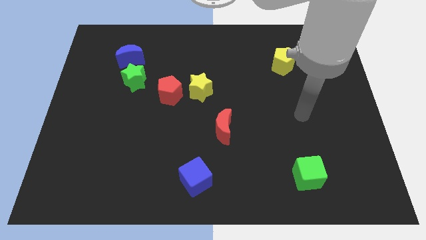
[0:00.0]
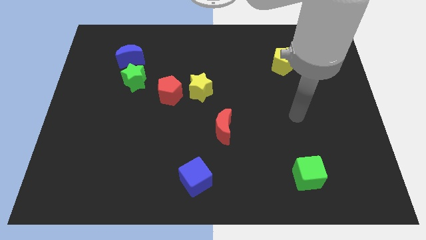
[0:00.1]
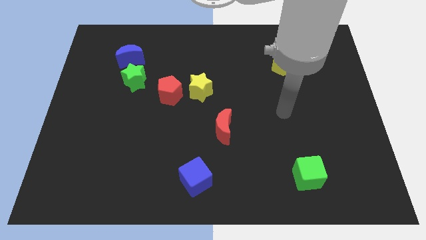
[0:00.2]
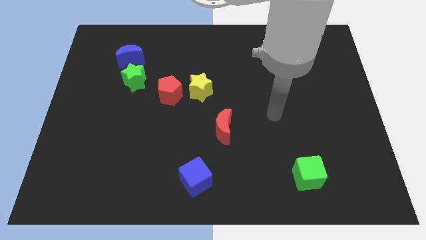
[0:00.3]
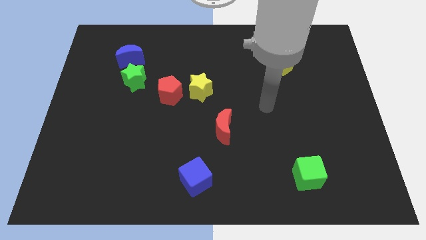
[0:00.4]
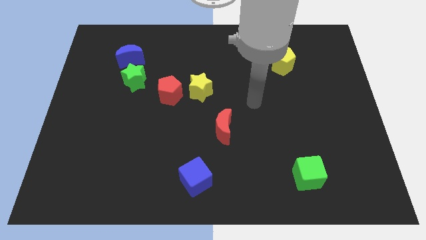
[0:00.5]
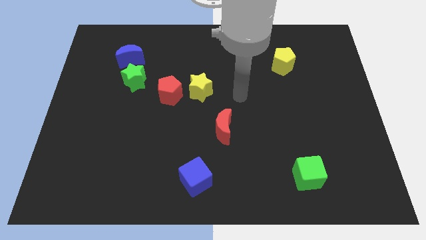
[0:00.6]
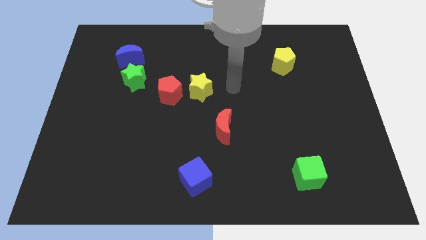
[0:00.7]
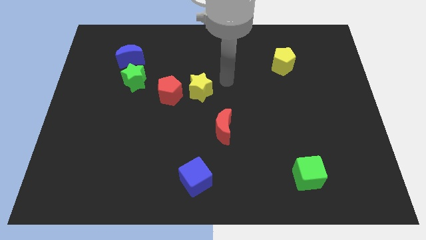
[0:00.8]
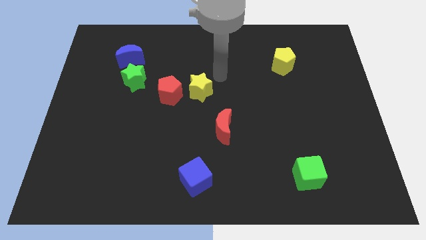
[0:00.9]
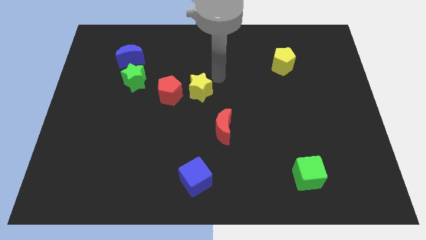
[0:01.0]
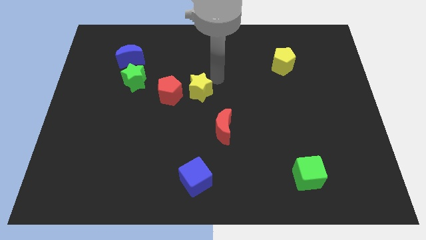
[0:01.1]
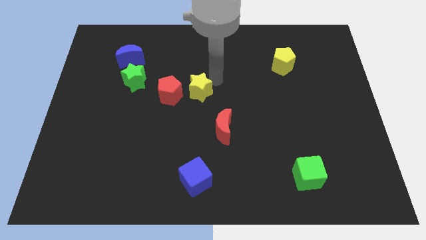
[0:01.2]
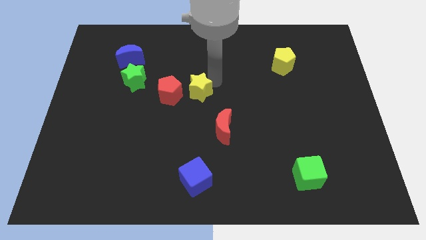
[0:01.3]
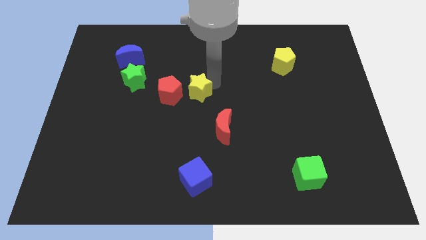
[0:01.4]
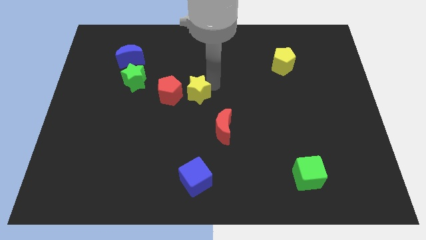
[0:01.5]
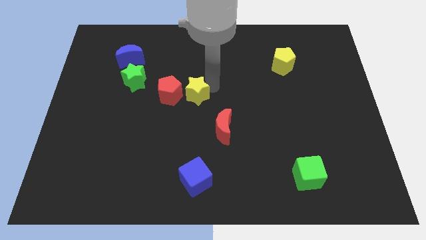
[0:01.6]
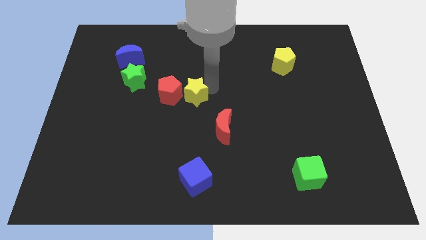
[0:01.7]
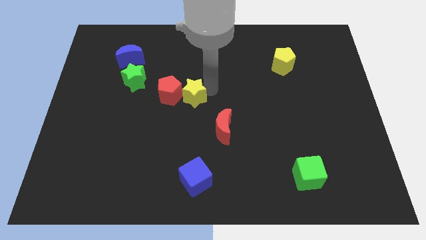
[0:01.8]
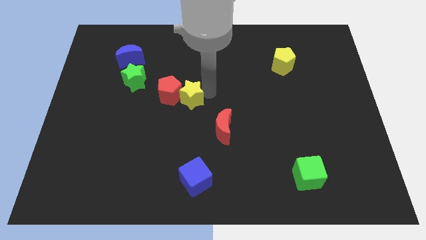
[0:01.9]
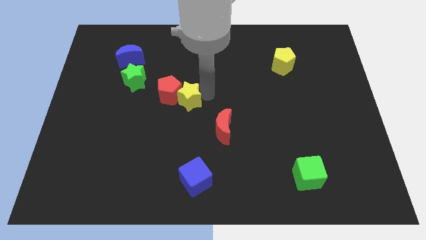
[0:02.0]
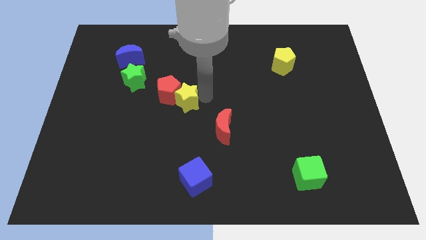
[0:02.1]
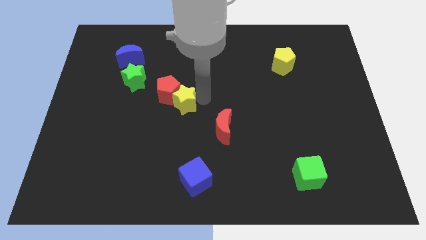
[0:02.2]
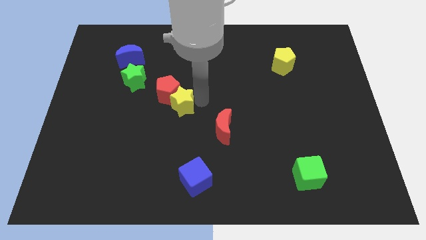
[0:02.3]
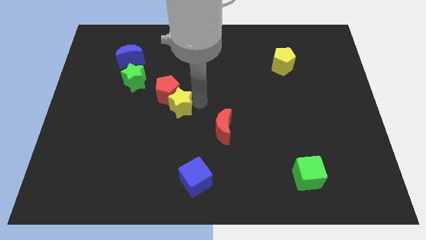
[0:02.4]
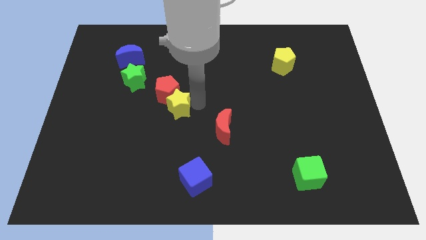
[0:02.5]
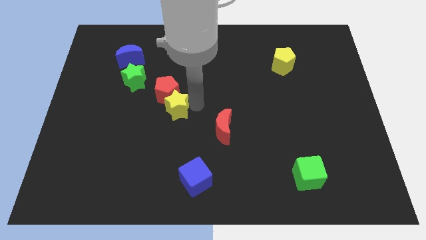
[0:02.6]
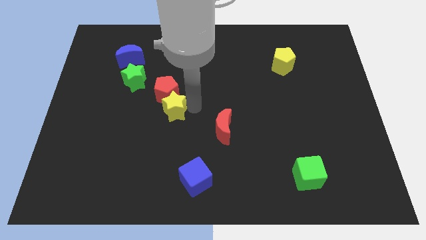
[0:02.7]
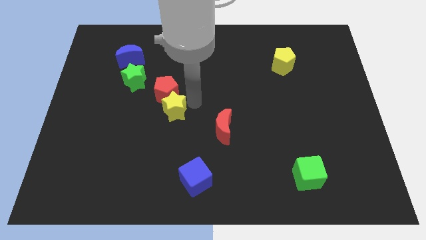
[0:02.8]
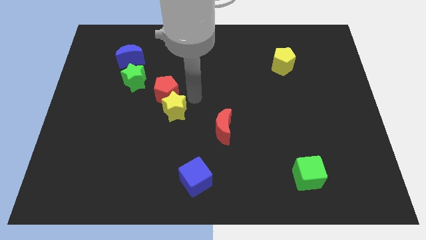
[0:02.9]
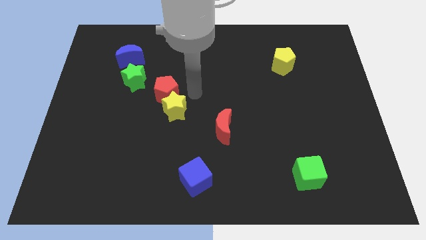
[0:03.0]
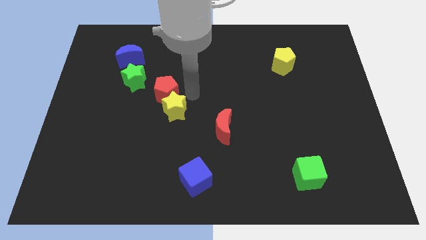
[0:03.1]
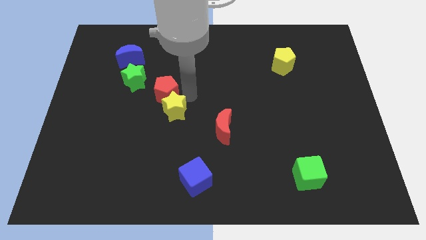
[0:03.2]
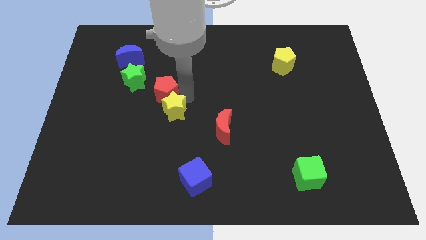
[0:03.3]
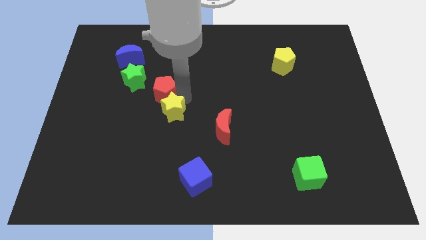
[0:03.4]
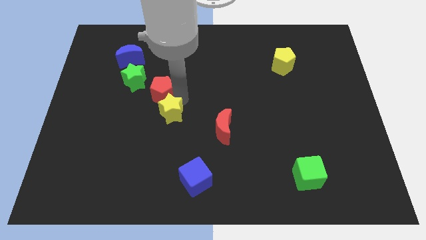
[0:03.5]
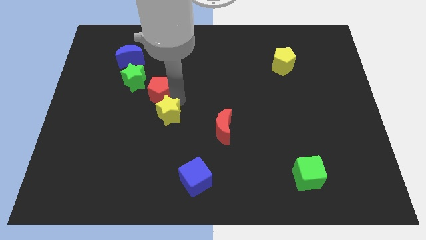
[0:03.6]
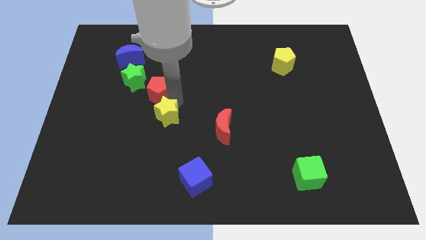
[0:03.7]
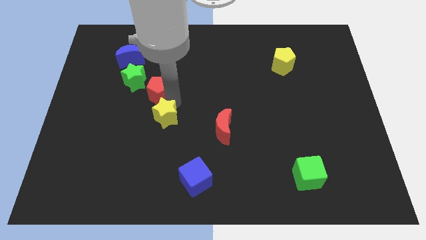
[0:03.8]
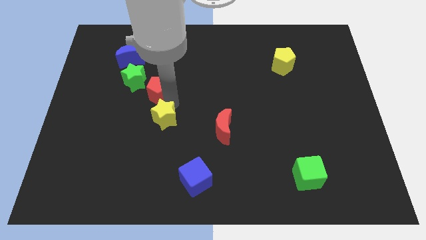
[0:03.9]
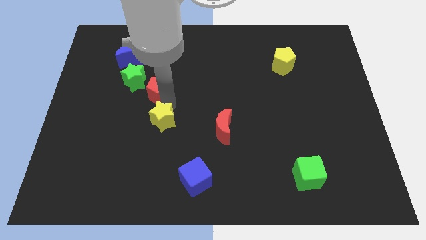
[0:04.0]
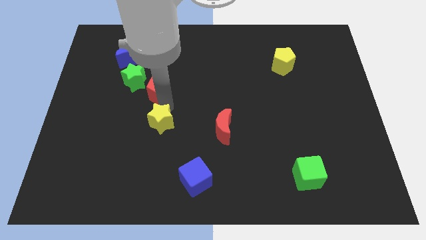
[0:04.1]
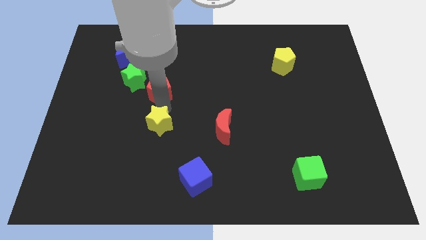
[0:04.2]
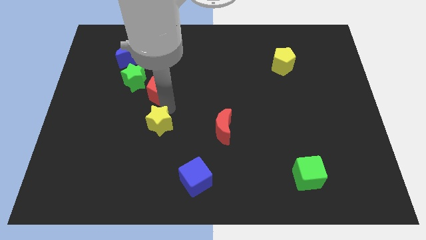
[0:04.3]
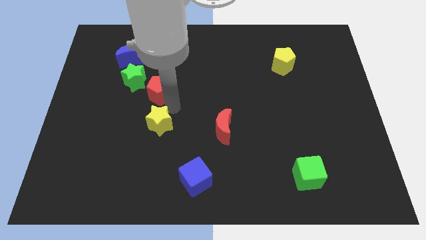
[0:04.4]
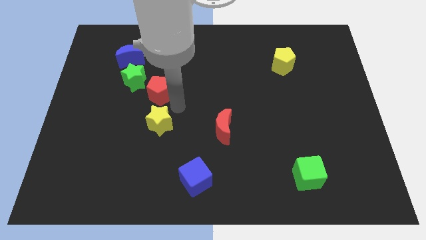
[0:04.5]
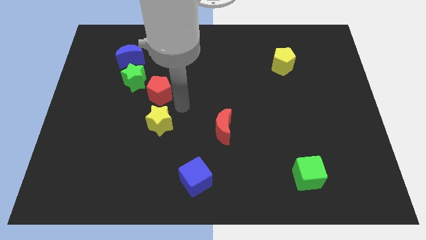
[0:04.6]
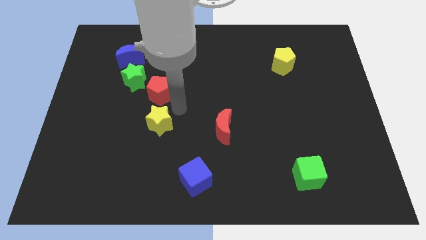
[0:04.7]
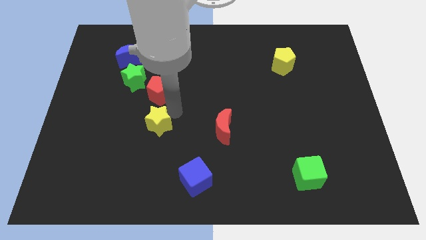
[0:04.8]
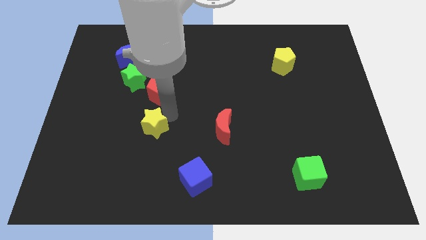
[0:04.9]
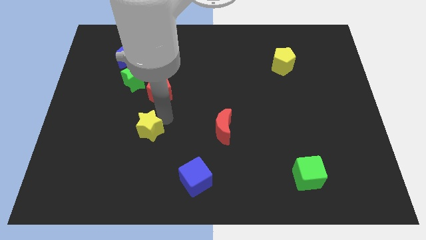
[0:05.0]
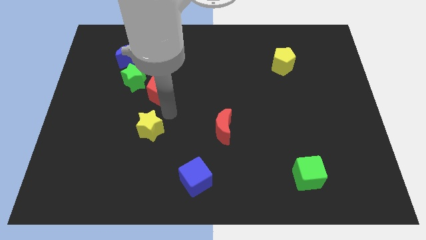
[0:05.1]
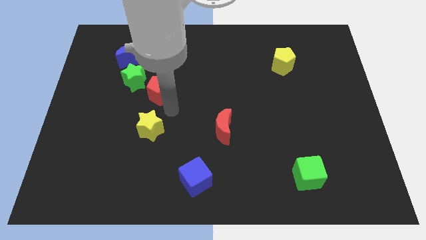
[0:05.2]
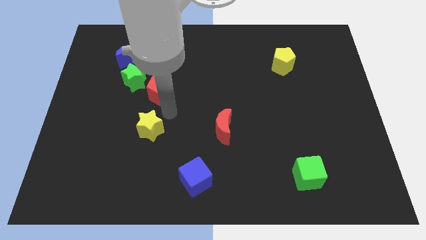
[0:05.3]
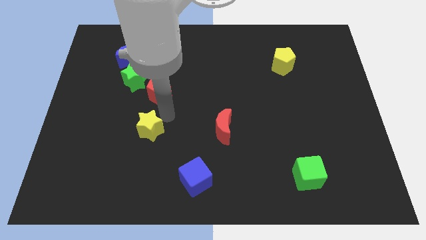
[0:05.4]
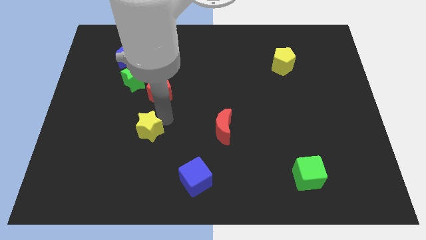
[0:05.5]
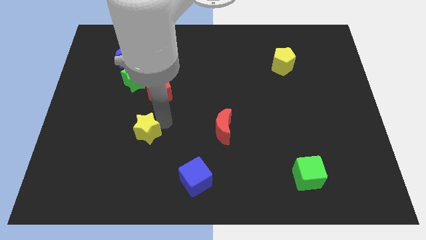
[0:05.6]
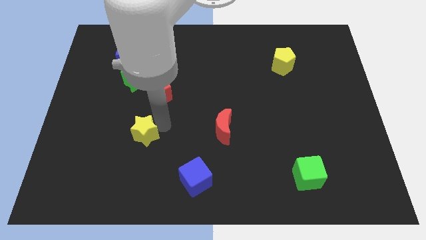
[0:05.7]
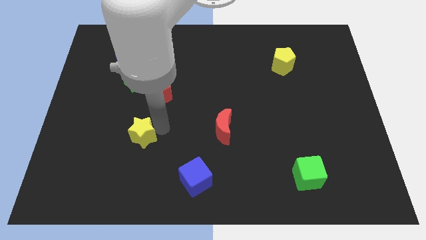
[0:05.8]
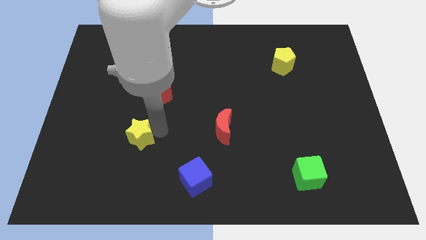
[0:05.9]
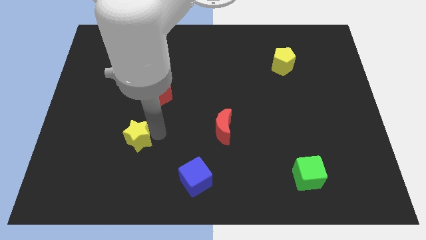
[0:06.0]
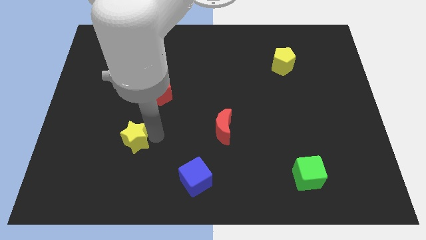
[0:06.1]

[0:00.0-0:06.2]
slide the yellow star down and then to the left

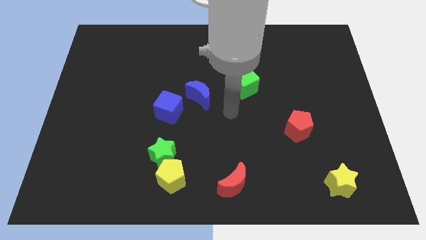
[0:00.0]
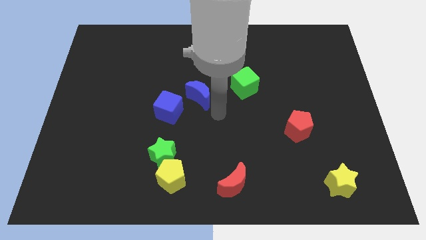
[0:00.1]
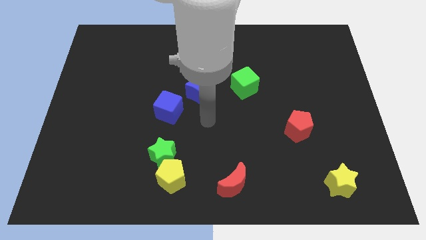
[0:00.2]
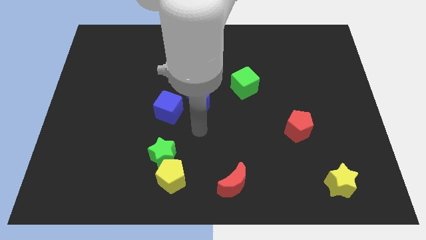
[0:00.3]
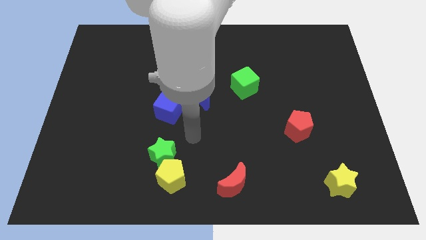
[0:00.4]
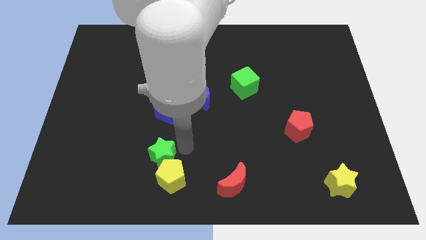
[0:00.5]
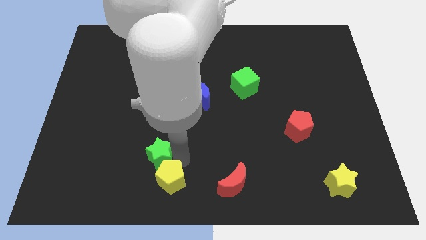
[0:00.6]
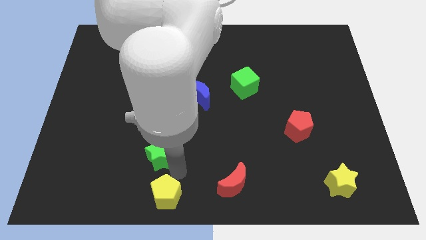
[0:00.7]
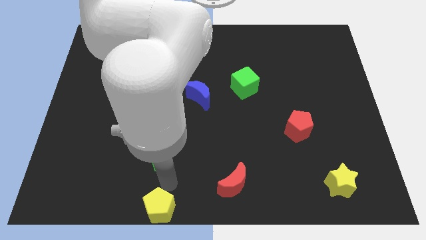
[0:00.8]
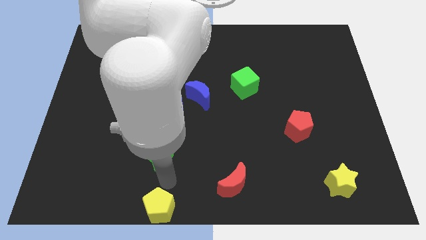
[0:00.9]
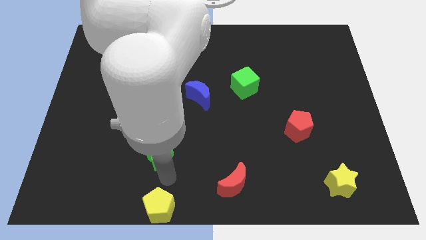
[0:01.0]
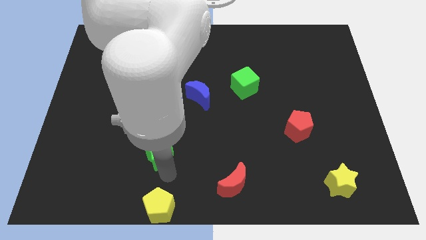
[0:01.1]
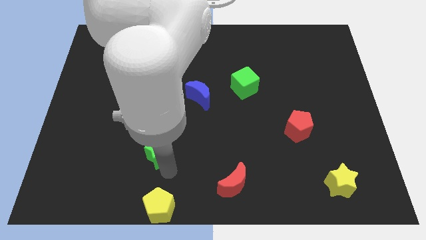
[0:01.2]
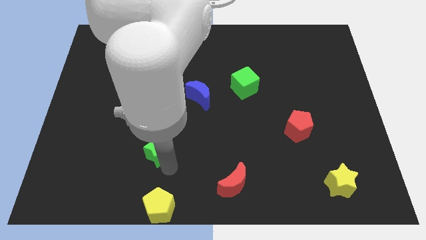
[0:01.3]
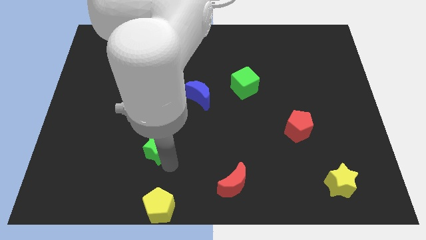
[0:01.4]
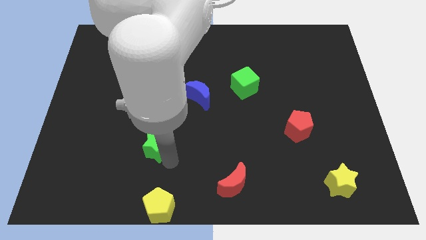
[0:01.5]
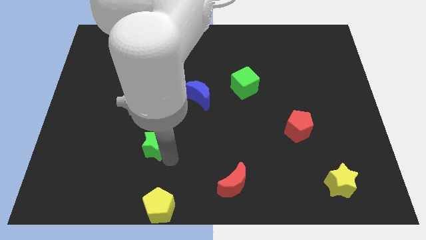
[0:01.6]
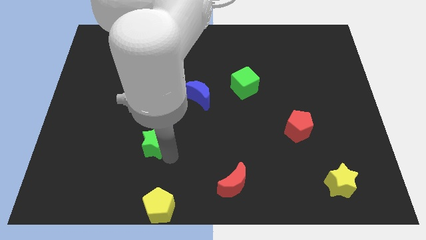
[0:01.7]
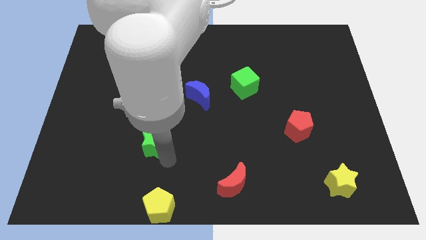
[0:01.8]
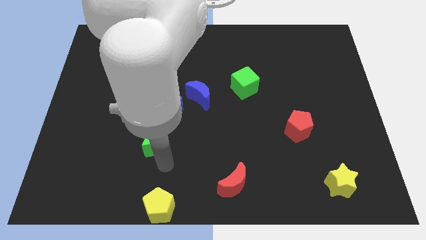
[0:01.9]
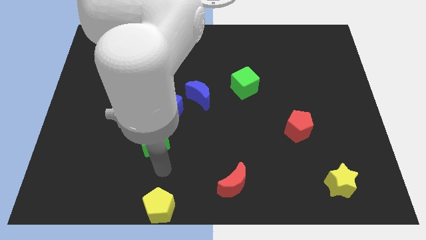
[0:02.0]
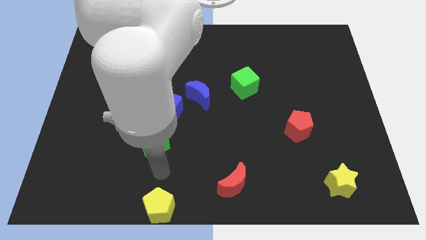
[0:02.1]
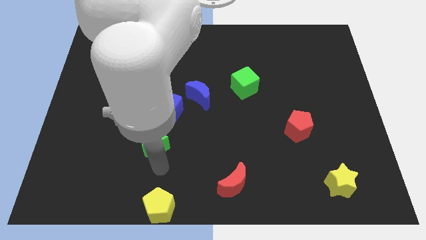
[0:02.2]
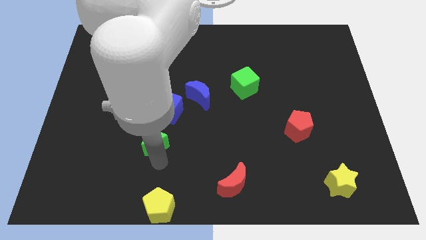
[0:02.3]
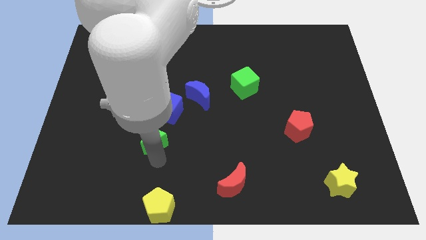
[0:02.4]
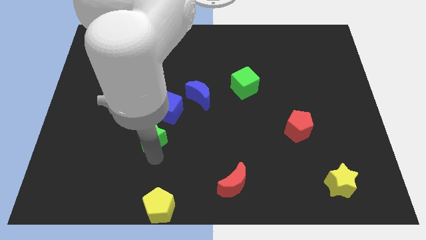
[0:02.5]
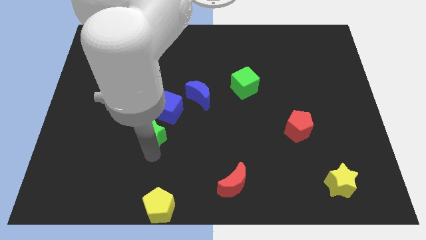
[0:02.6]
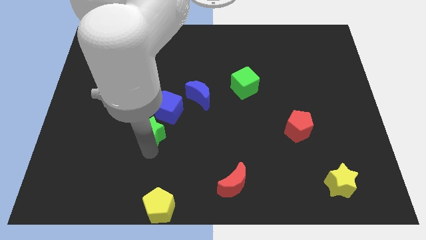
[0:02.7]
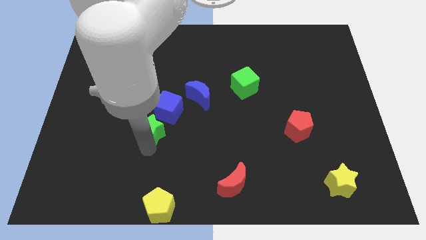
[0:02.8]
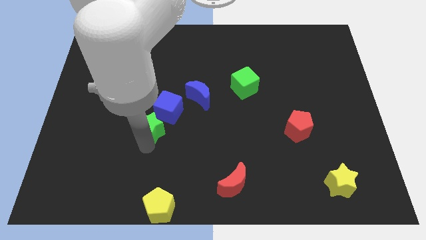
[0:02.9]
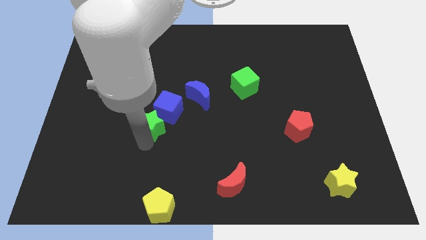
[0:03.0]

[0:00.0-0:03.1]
slightly push the green star up
